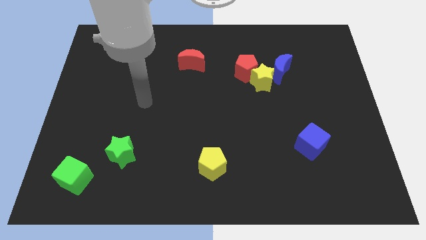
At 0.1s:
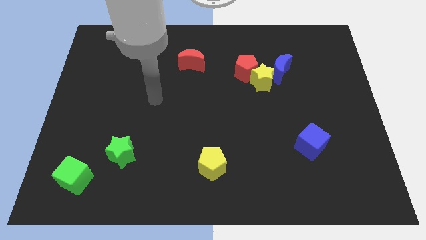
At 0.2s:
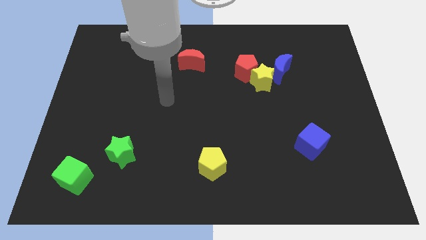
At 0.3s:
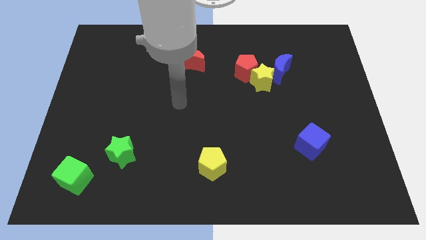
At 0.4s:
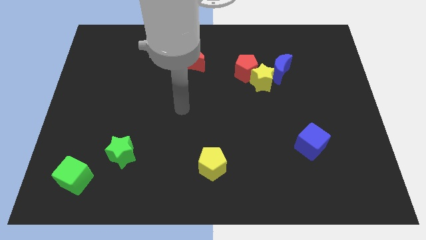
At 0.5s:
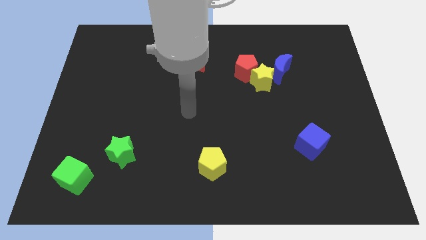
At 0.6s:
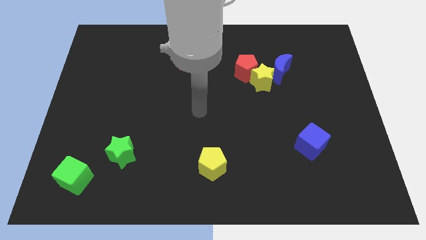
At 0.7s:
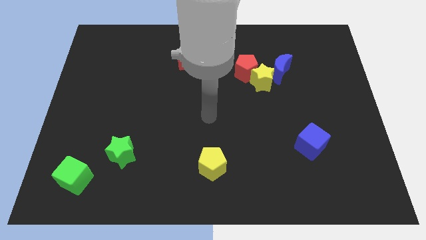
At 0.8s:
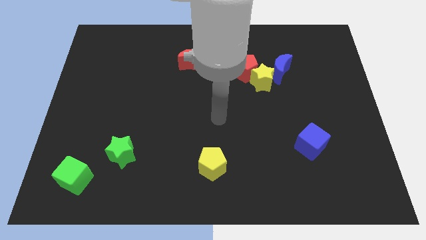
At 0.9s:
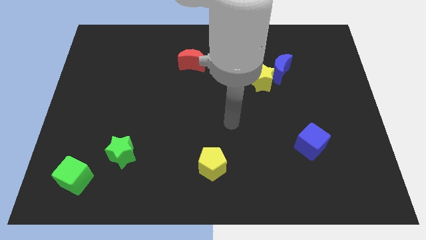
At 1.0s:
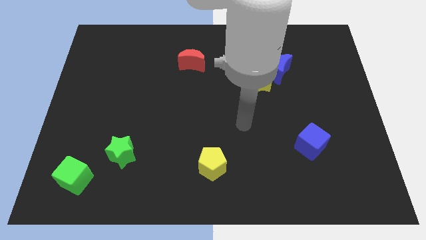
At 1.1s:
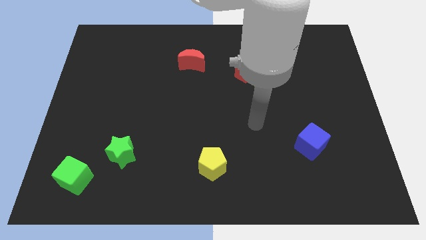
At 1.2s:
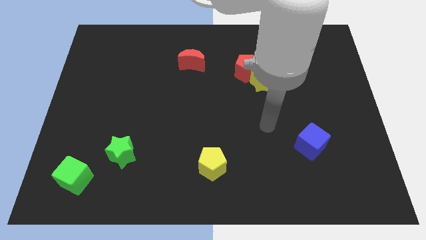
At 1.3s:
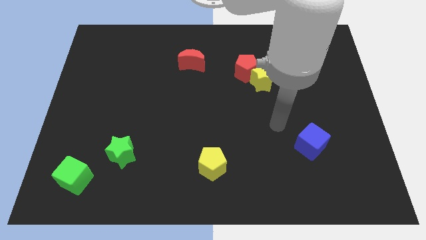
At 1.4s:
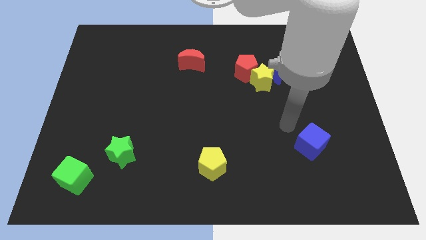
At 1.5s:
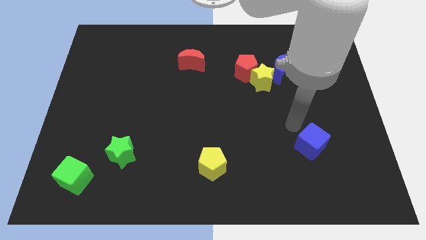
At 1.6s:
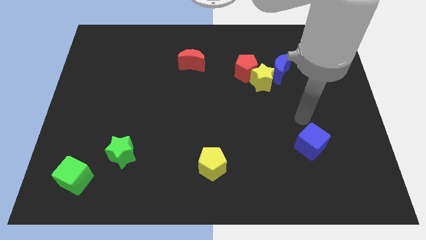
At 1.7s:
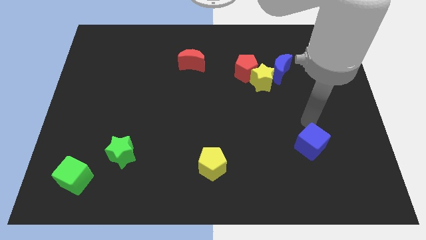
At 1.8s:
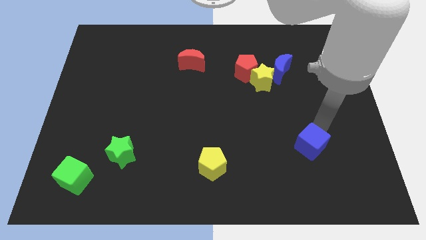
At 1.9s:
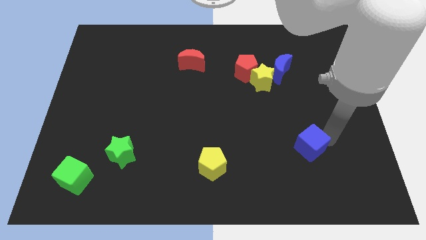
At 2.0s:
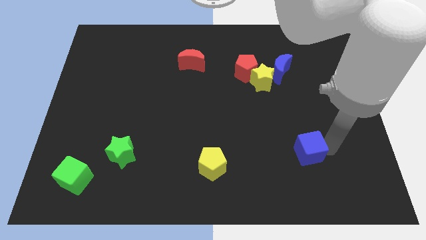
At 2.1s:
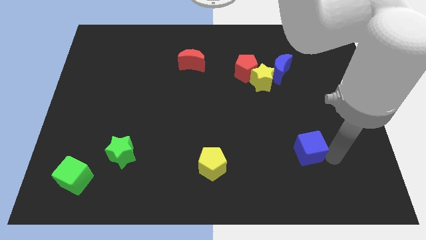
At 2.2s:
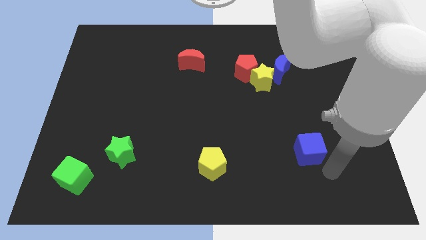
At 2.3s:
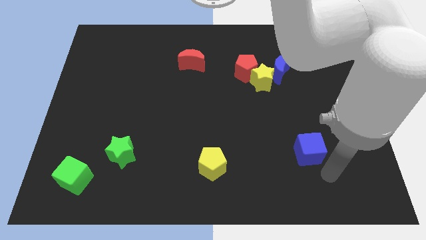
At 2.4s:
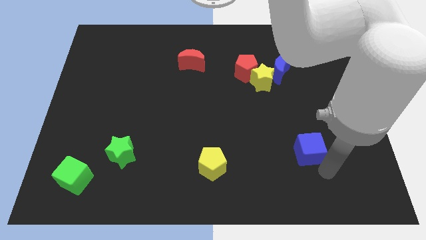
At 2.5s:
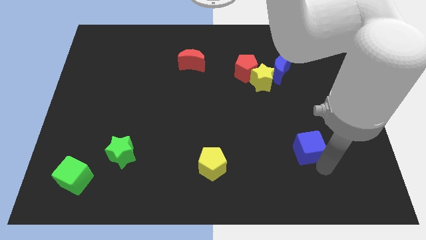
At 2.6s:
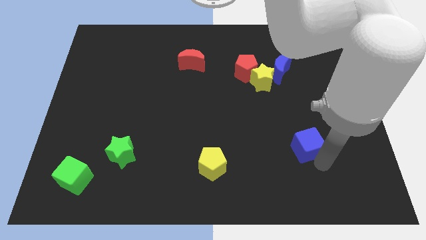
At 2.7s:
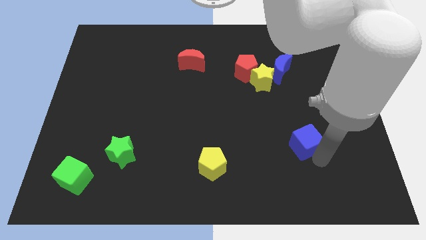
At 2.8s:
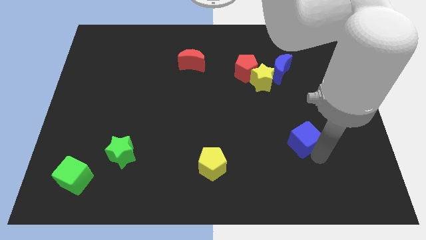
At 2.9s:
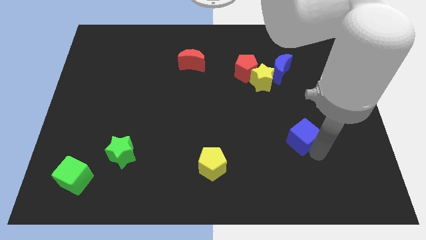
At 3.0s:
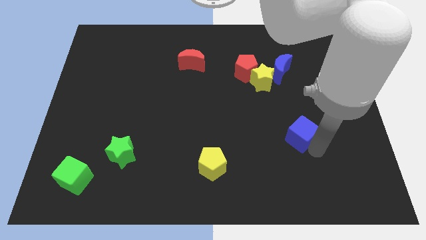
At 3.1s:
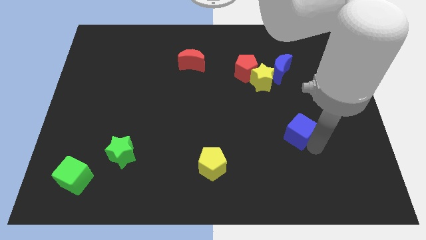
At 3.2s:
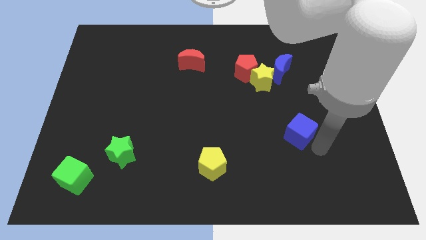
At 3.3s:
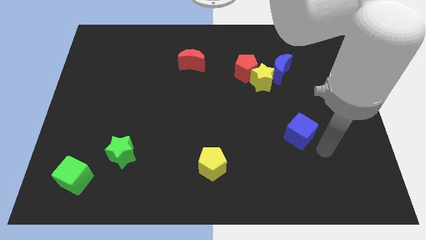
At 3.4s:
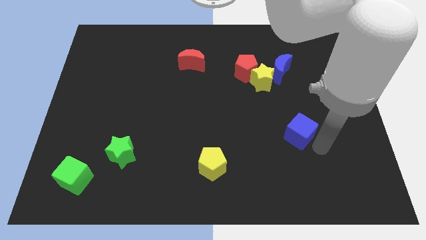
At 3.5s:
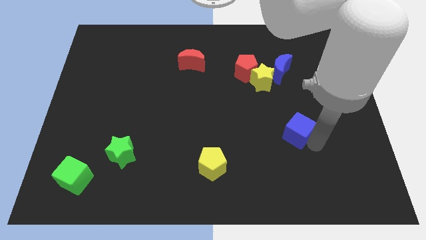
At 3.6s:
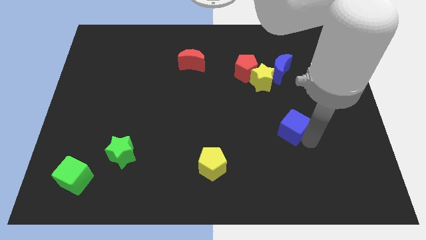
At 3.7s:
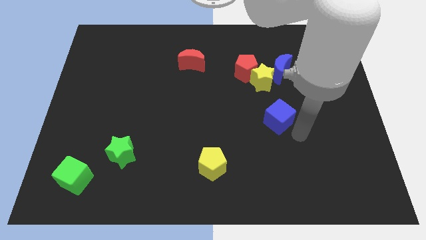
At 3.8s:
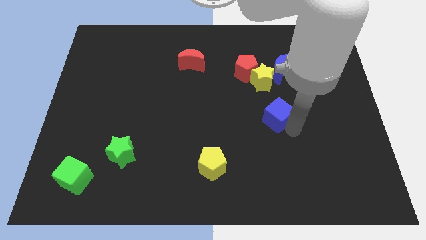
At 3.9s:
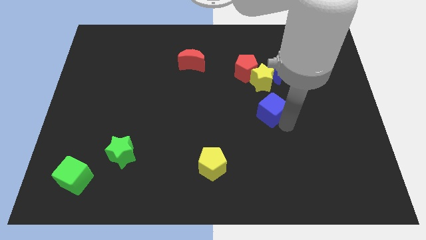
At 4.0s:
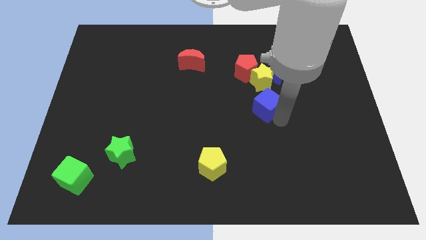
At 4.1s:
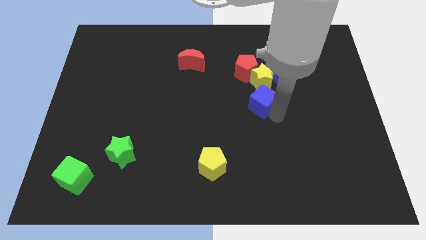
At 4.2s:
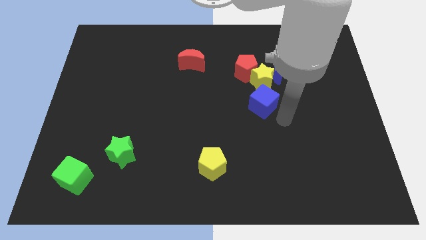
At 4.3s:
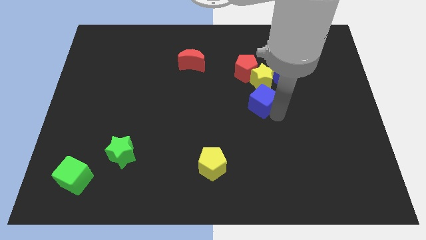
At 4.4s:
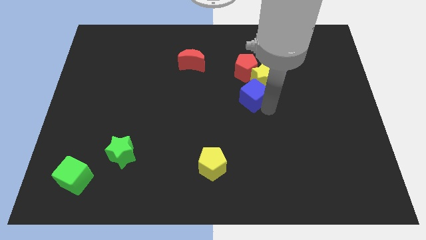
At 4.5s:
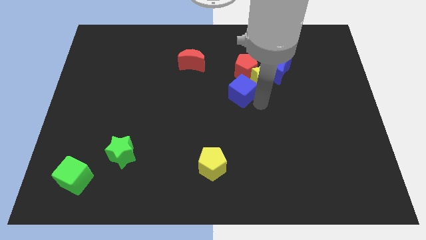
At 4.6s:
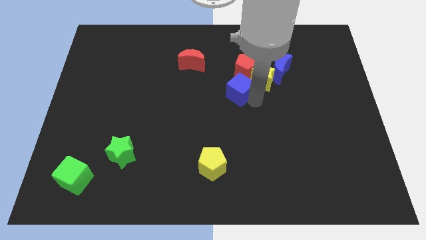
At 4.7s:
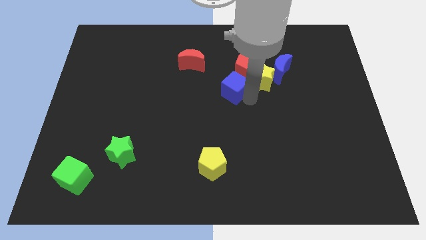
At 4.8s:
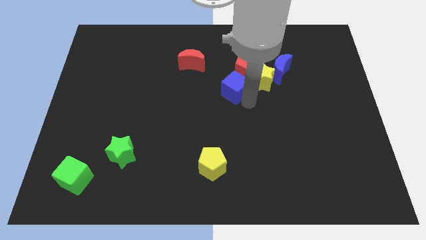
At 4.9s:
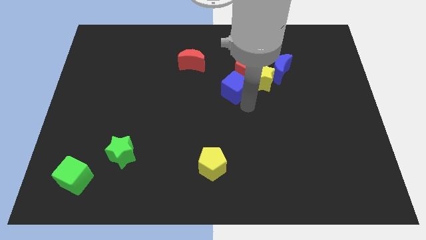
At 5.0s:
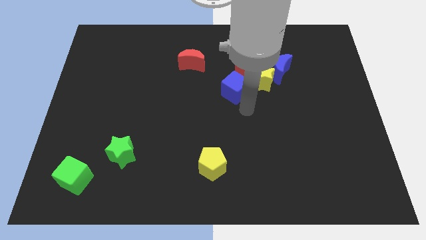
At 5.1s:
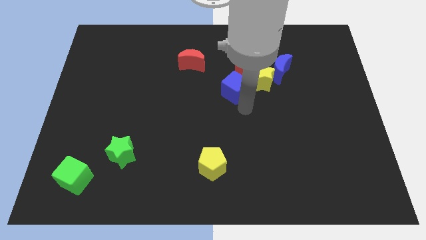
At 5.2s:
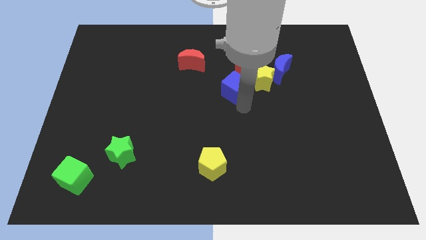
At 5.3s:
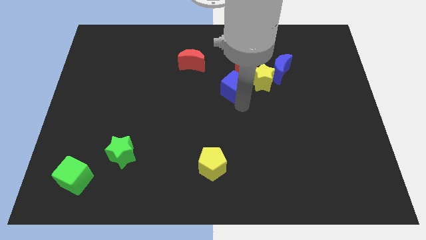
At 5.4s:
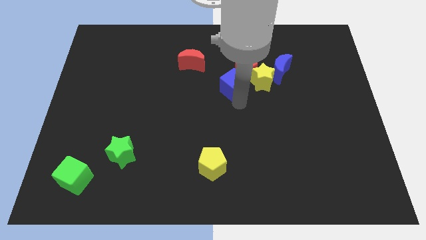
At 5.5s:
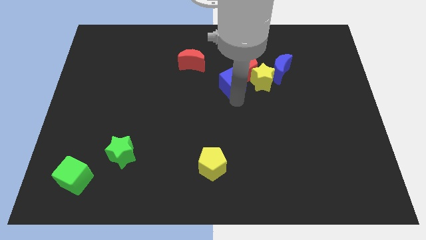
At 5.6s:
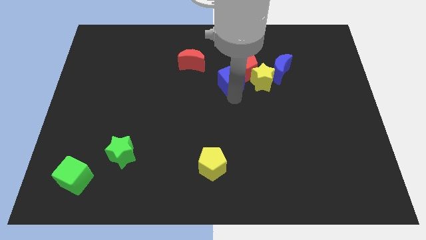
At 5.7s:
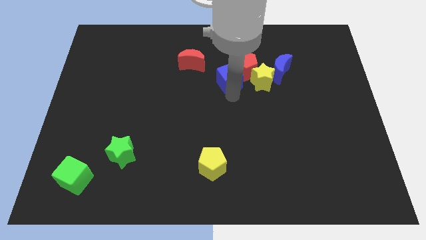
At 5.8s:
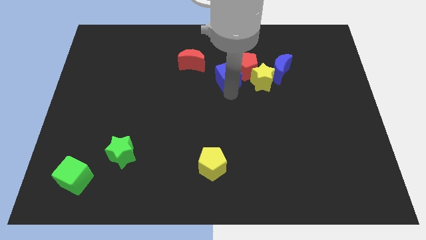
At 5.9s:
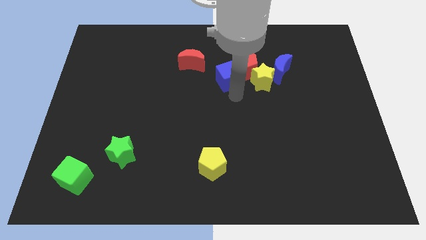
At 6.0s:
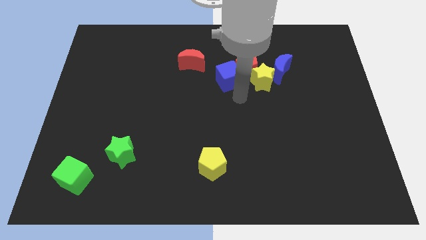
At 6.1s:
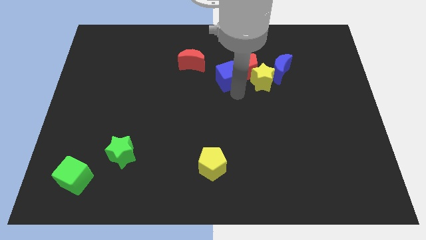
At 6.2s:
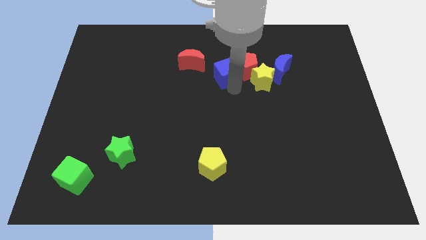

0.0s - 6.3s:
put the blue cube right of the red moon

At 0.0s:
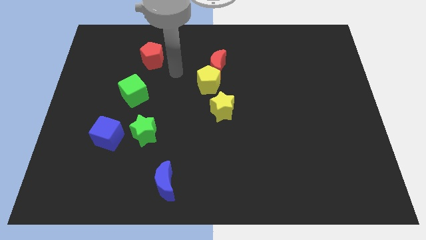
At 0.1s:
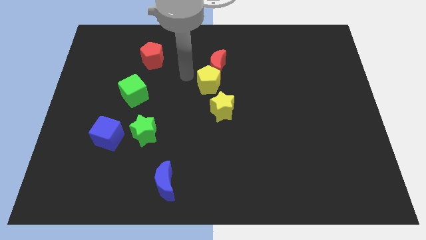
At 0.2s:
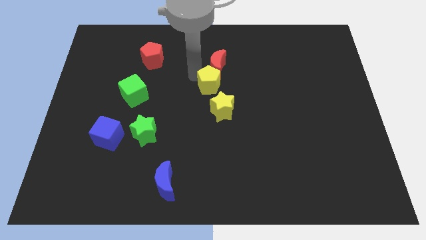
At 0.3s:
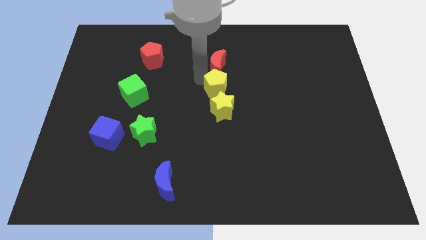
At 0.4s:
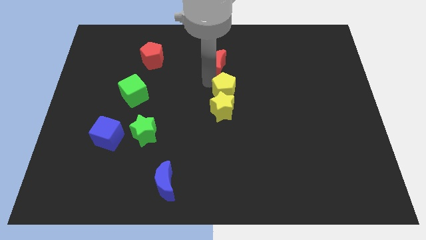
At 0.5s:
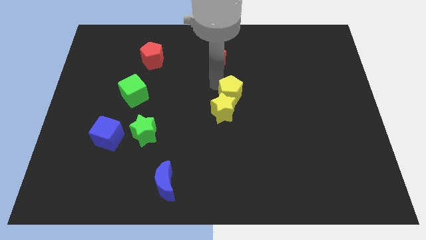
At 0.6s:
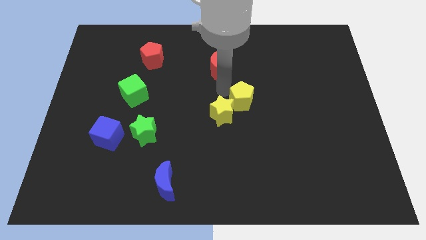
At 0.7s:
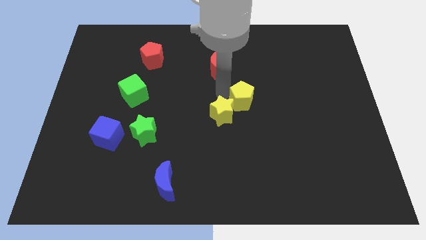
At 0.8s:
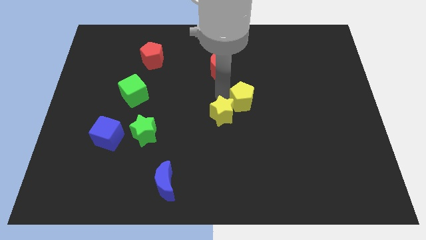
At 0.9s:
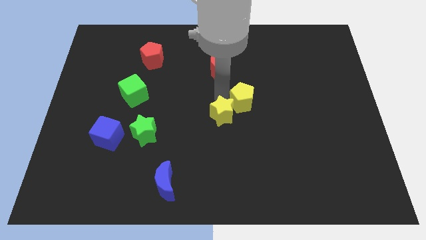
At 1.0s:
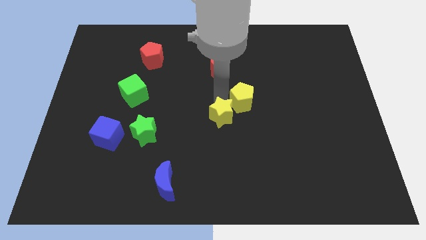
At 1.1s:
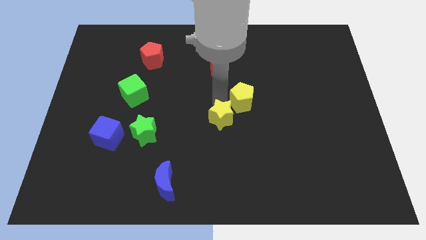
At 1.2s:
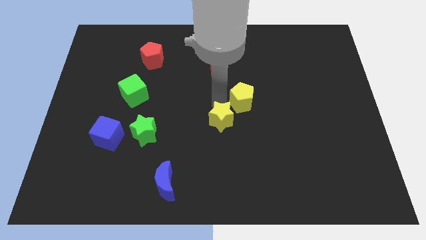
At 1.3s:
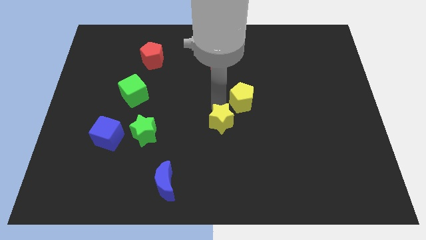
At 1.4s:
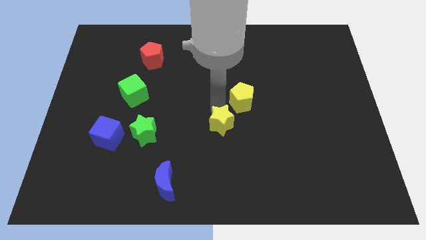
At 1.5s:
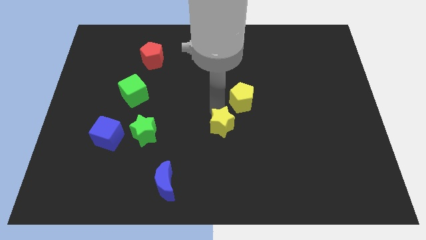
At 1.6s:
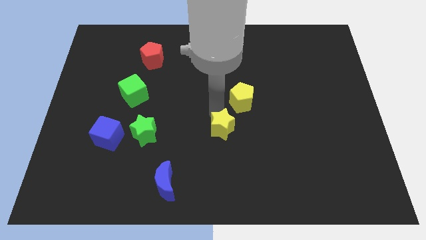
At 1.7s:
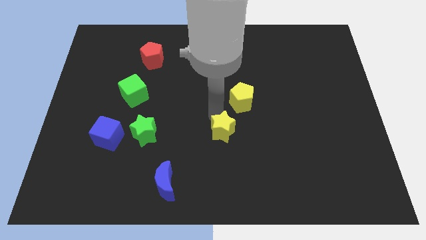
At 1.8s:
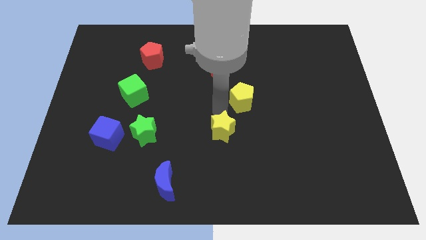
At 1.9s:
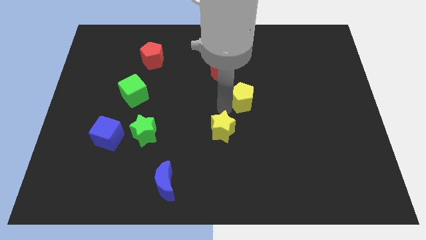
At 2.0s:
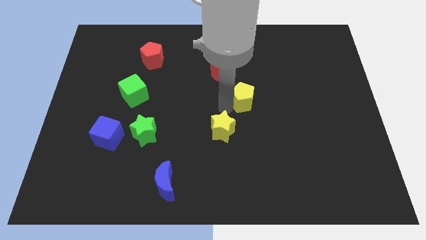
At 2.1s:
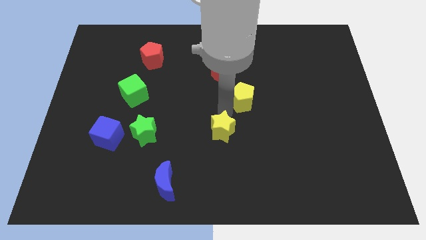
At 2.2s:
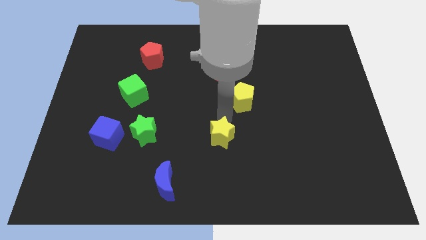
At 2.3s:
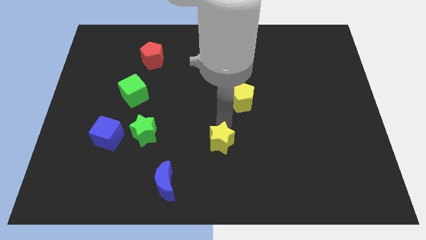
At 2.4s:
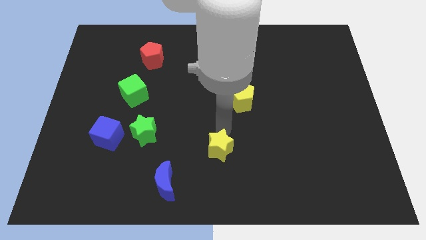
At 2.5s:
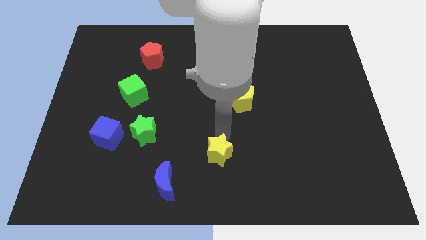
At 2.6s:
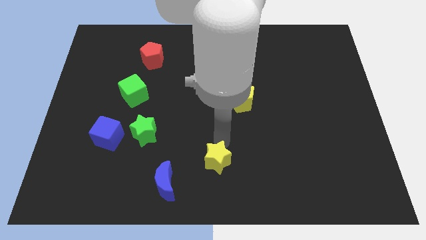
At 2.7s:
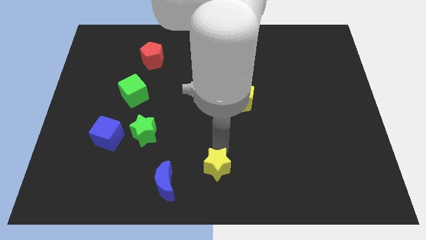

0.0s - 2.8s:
push the yellow star just right of the blue moon
